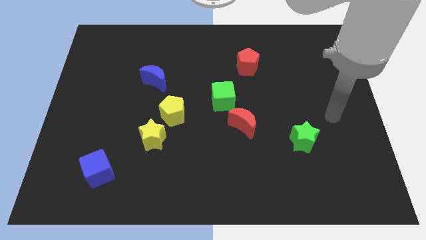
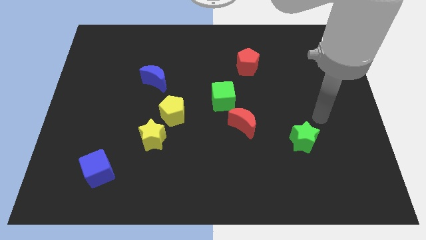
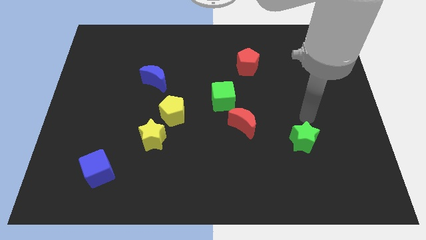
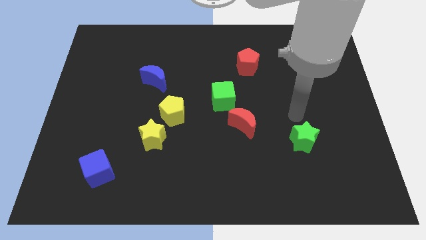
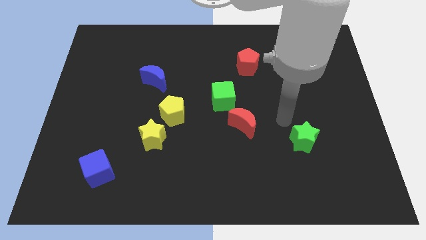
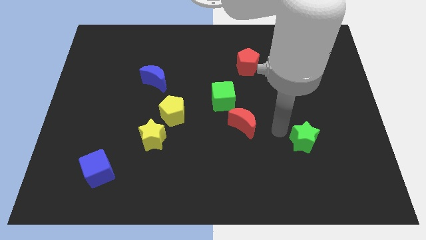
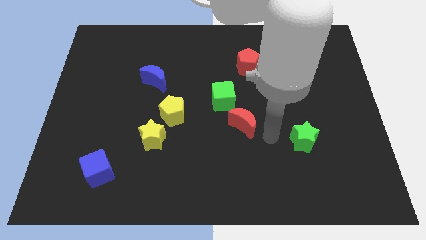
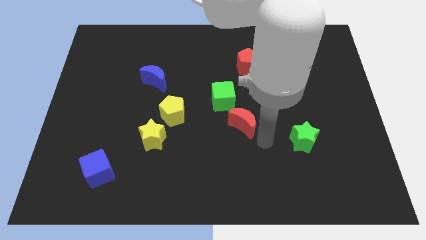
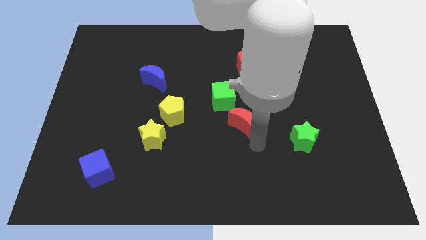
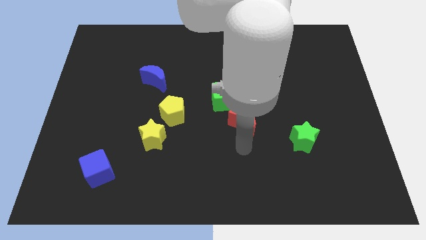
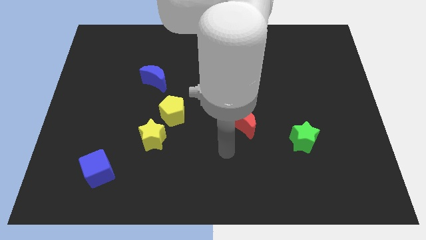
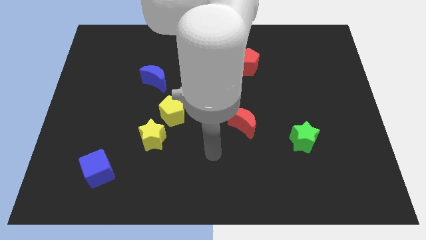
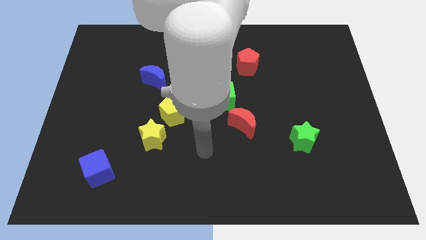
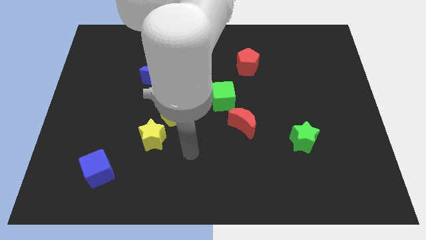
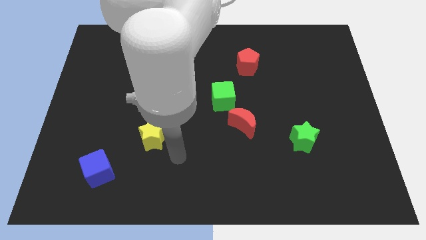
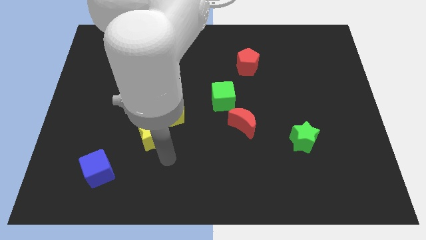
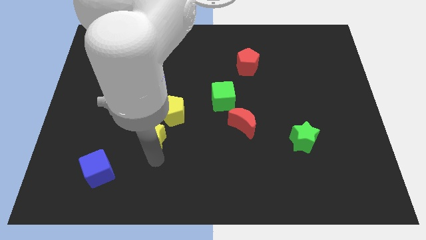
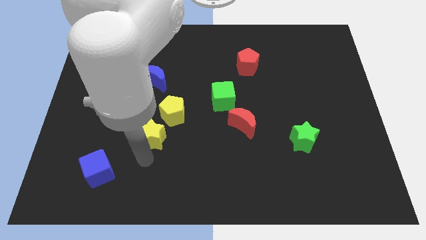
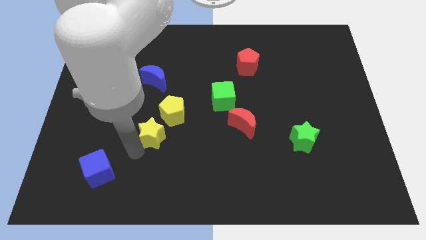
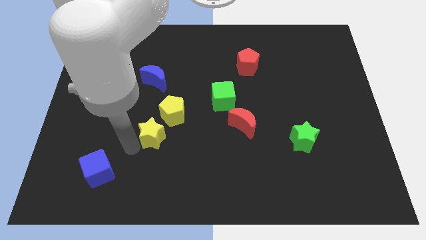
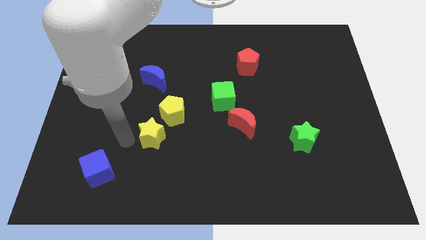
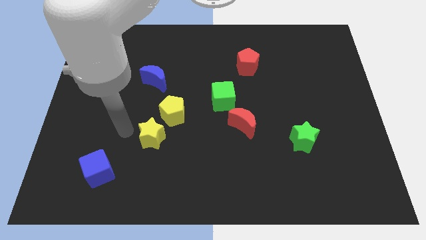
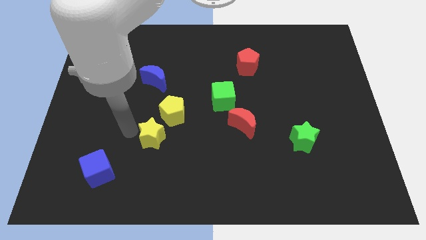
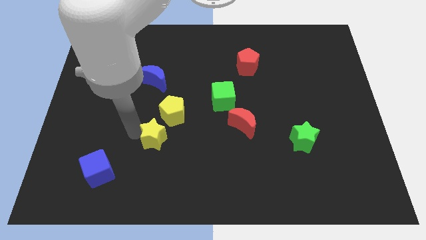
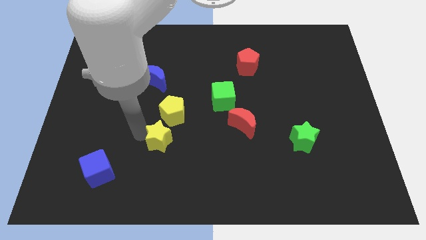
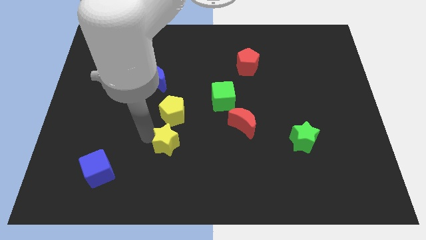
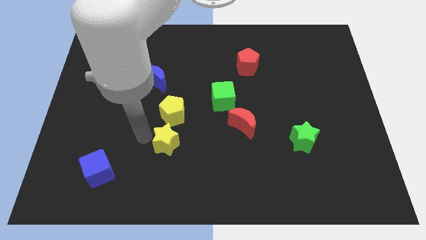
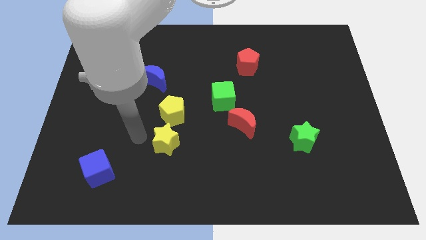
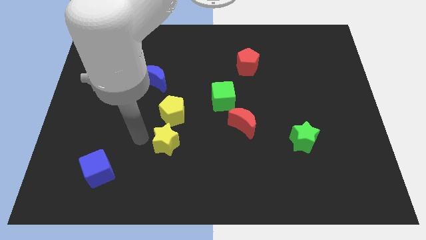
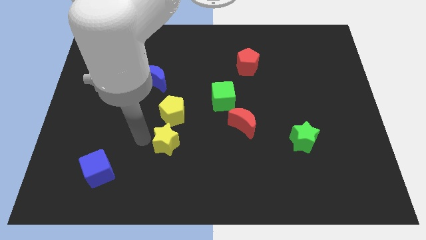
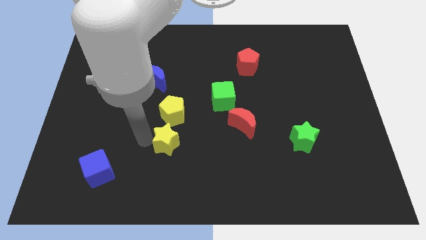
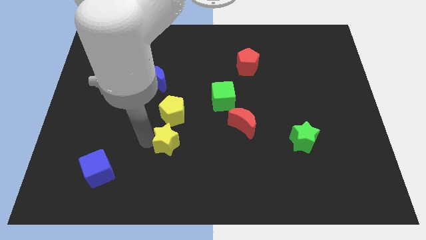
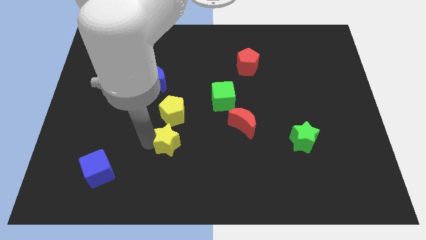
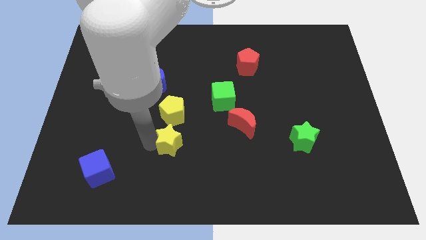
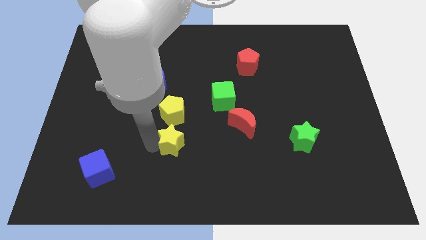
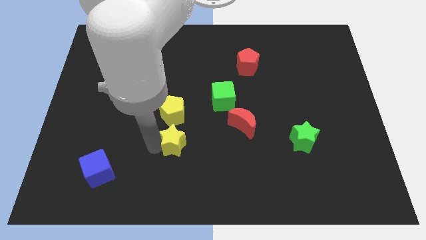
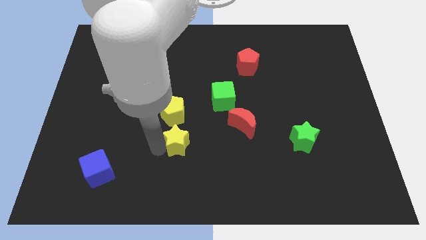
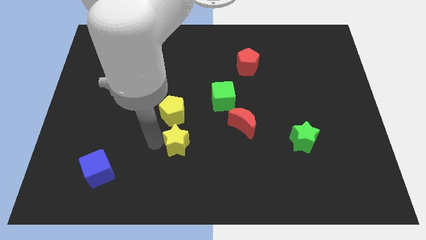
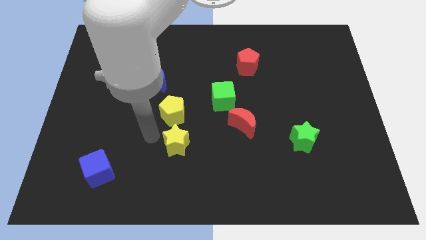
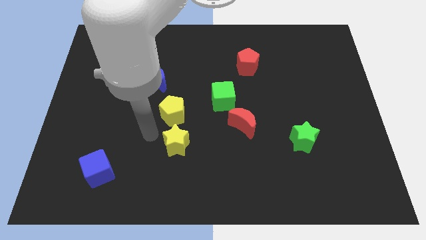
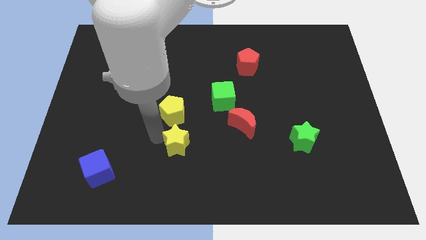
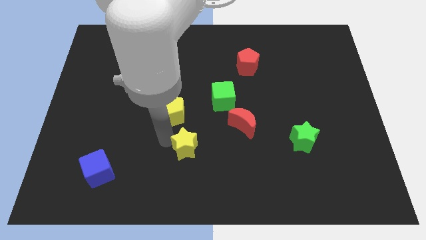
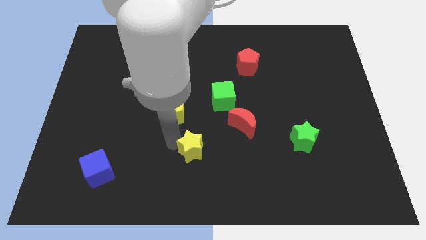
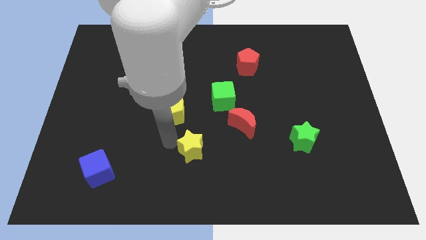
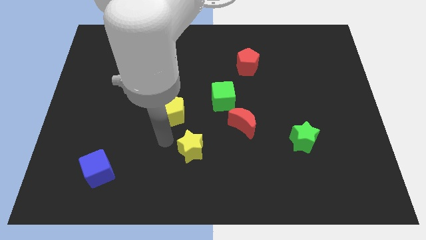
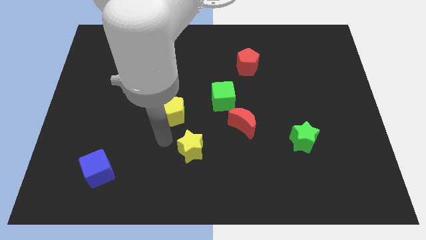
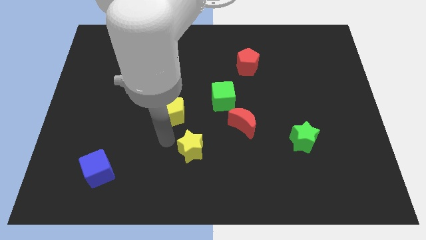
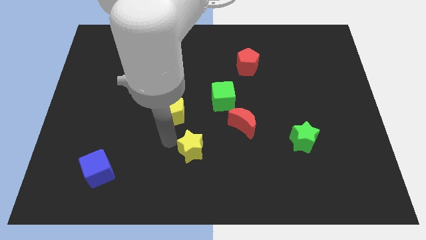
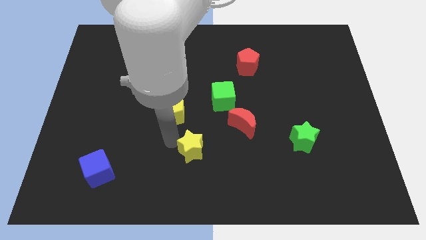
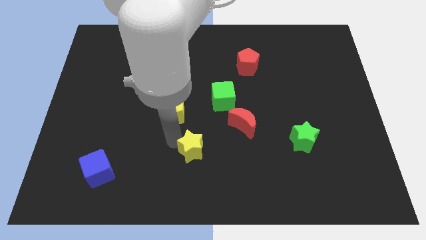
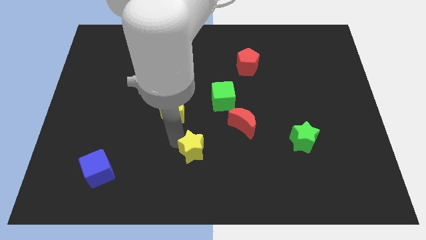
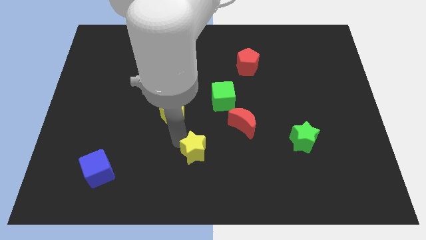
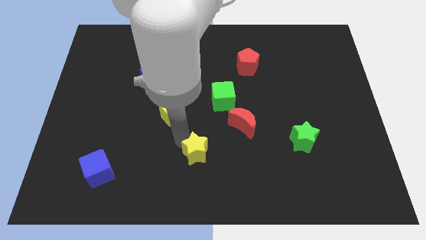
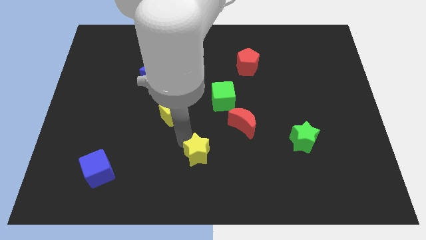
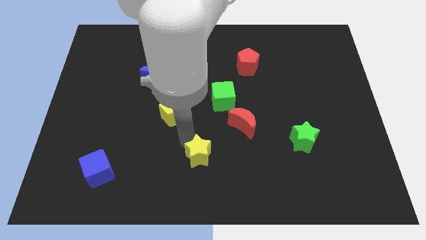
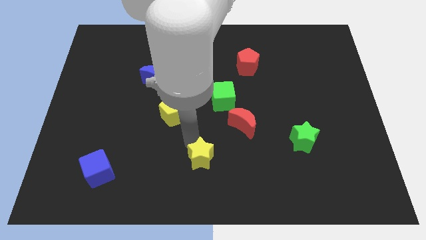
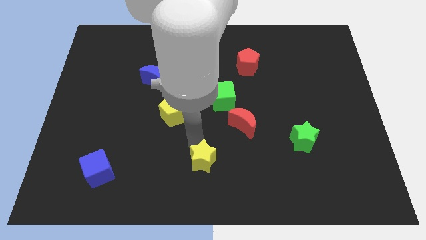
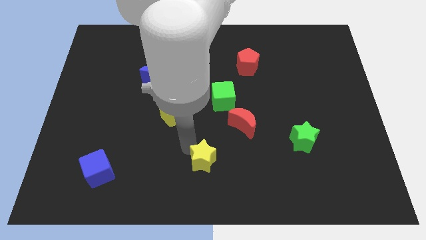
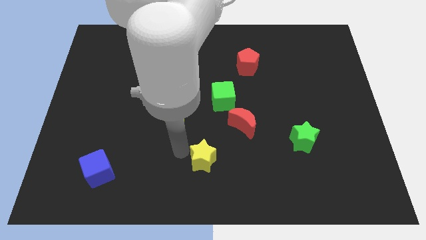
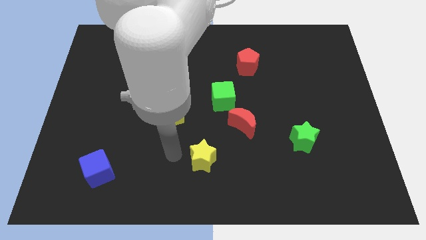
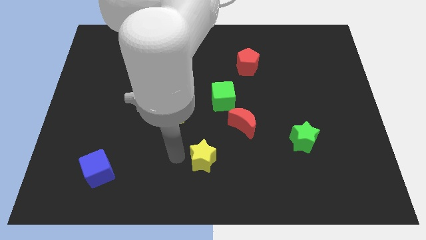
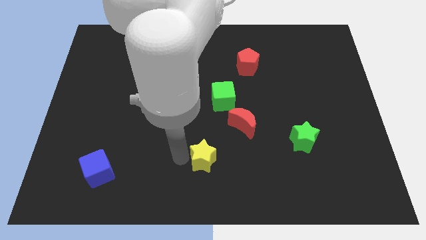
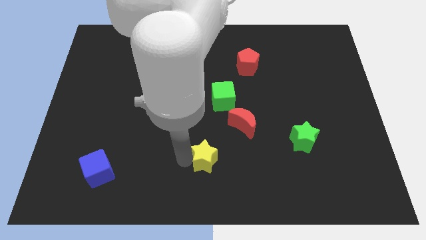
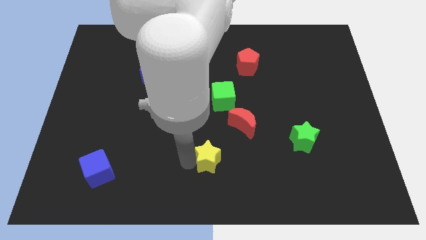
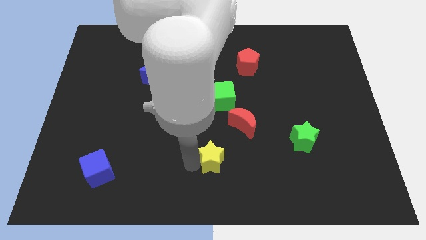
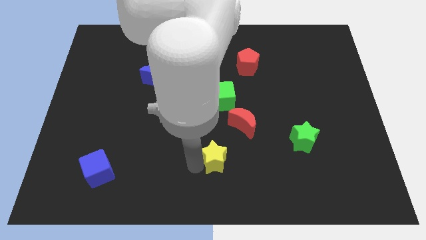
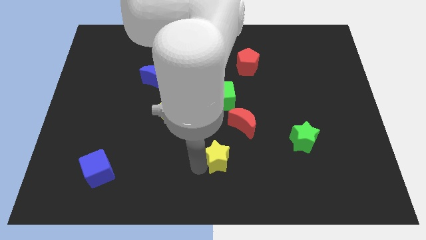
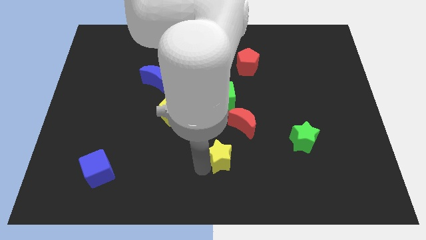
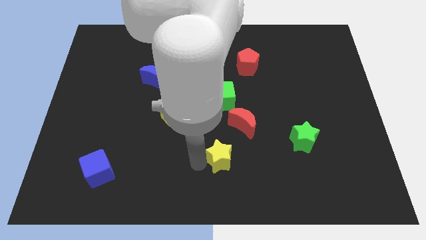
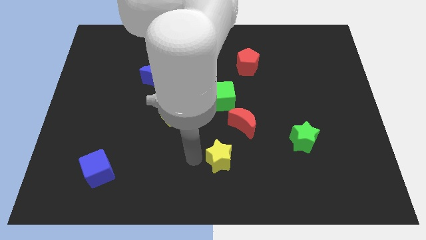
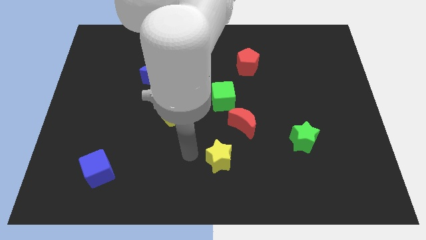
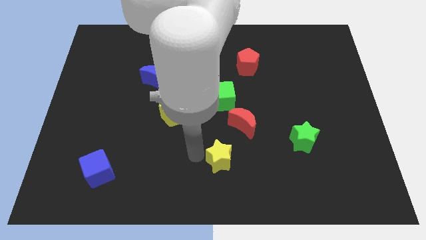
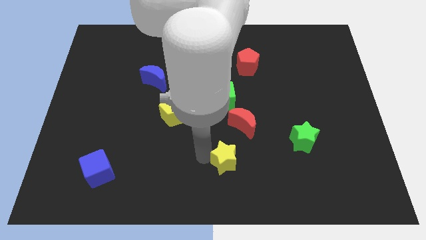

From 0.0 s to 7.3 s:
slide the yellow star below the red moon

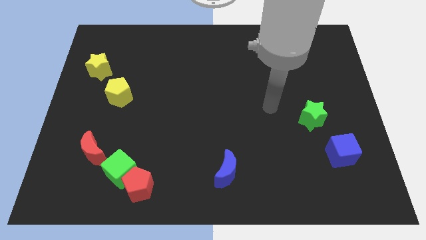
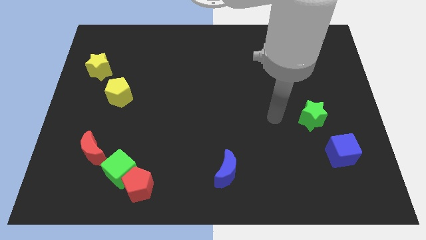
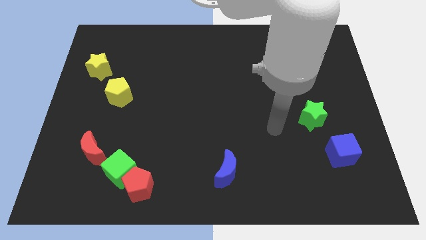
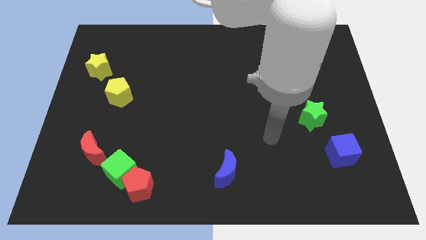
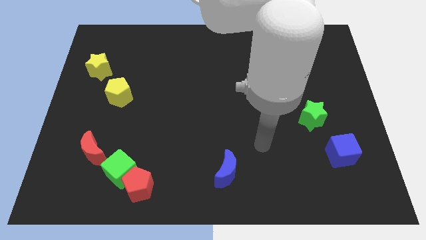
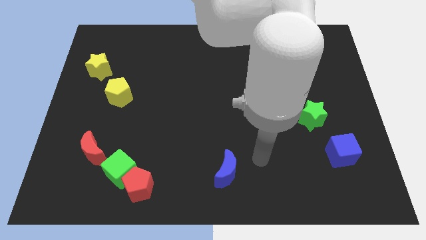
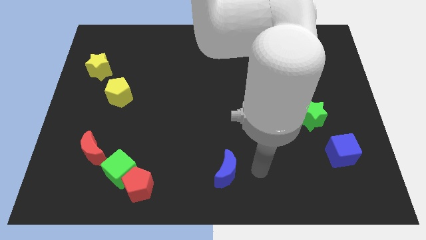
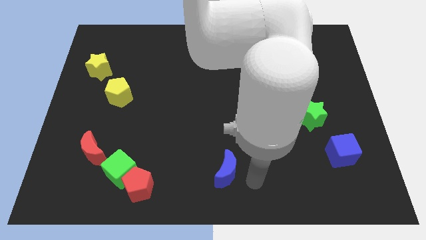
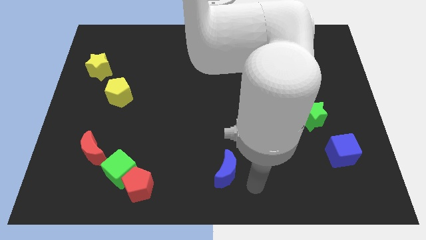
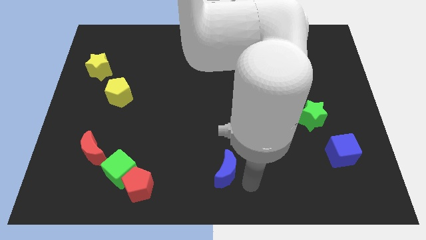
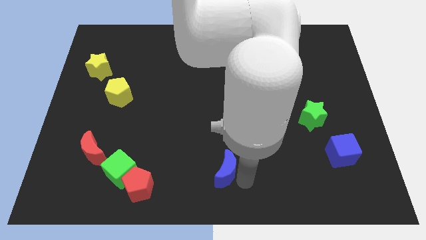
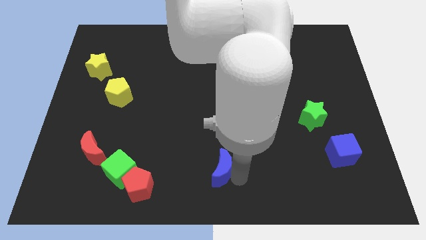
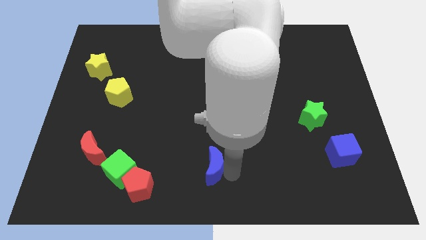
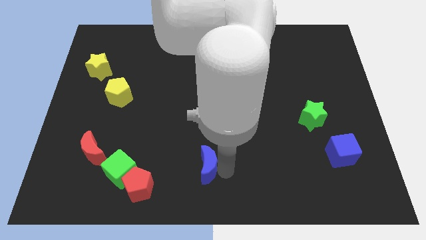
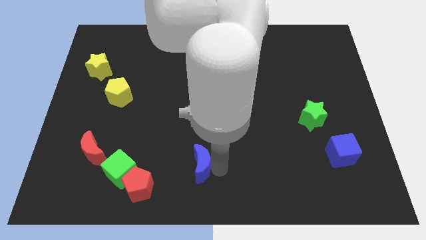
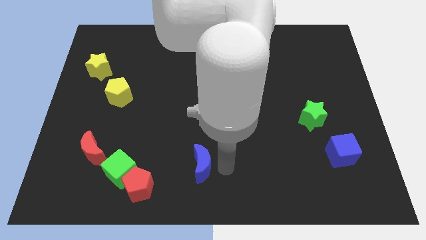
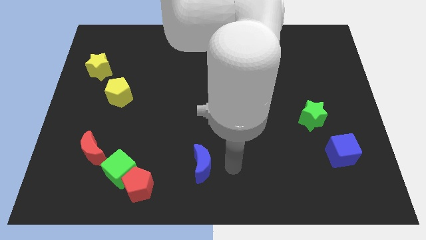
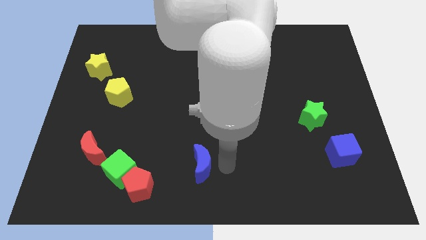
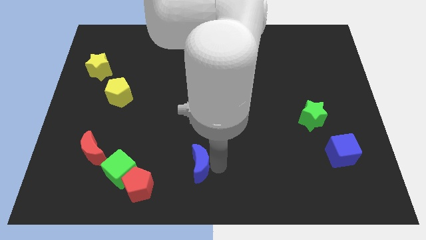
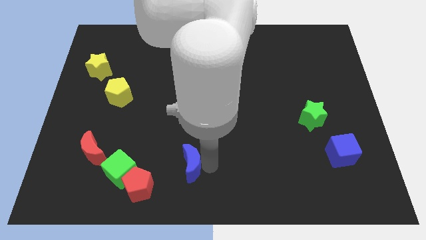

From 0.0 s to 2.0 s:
move the blue moon to the top right of the red pentagon
